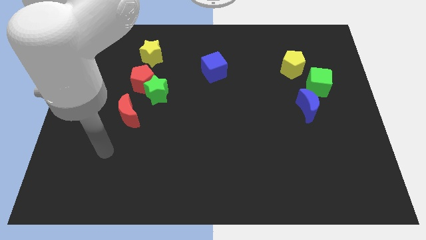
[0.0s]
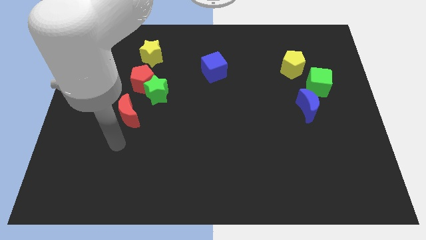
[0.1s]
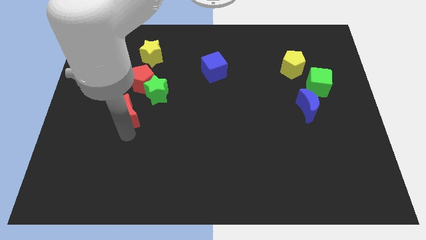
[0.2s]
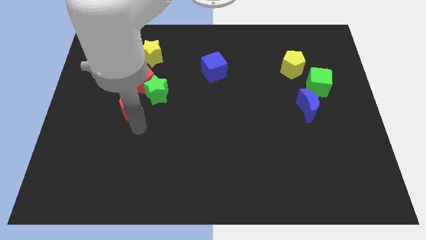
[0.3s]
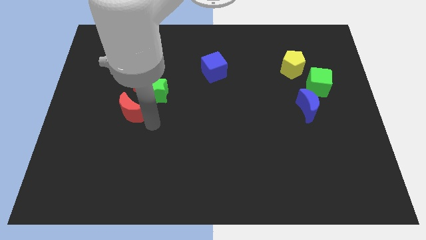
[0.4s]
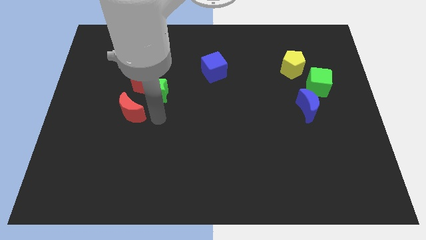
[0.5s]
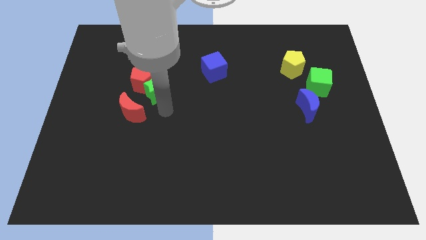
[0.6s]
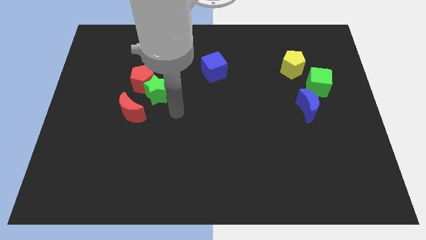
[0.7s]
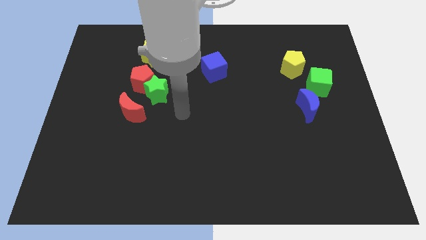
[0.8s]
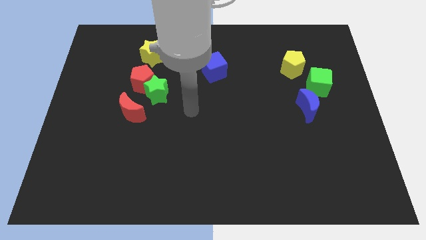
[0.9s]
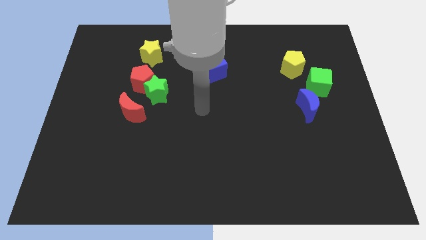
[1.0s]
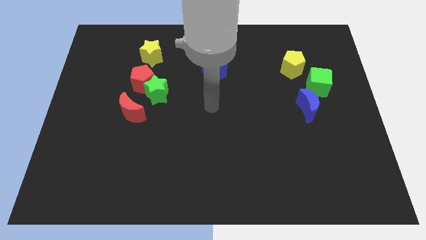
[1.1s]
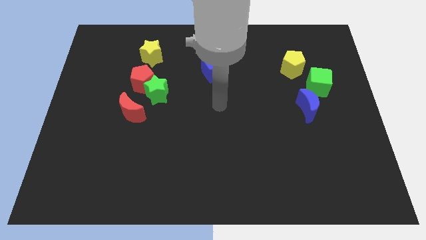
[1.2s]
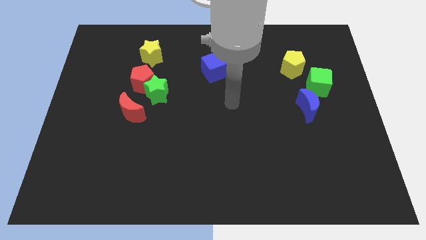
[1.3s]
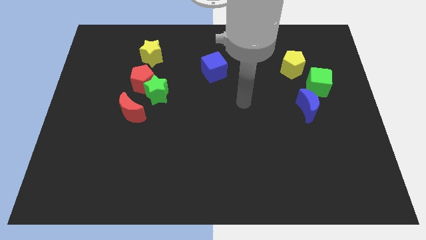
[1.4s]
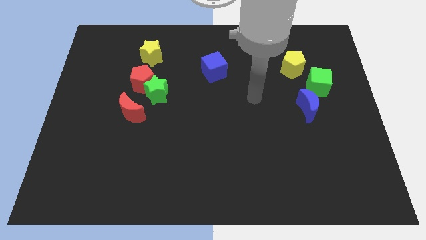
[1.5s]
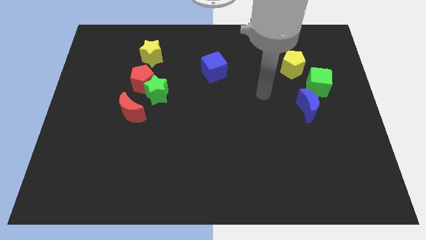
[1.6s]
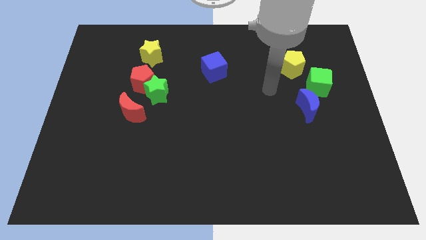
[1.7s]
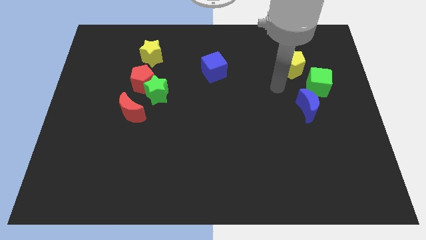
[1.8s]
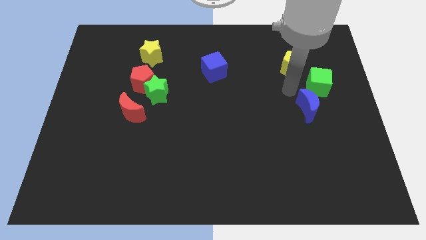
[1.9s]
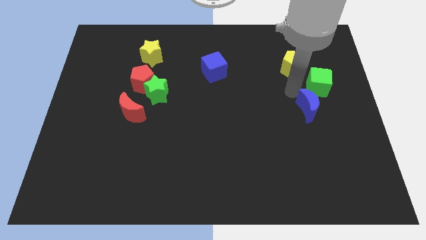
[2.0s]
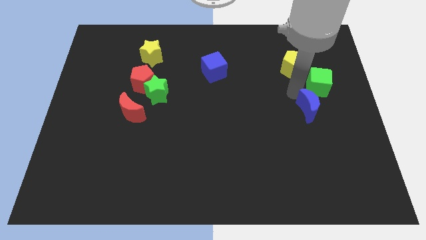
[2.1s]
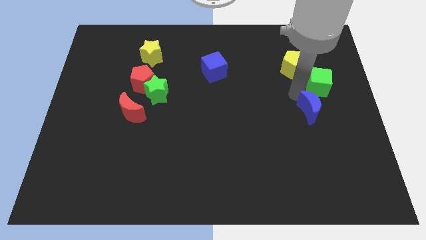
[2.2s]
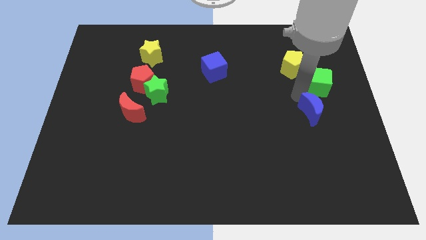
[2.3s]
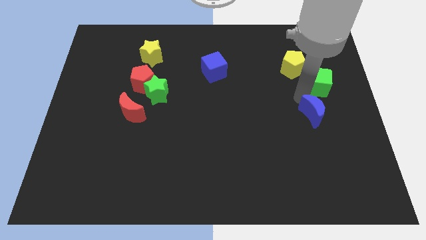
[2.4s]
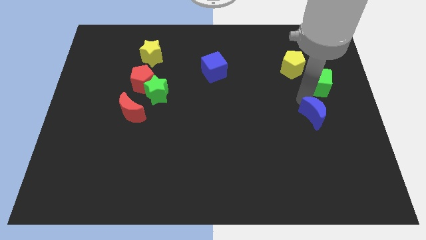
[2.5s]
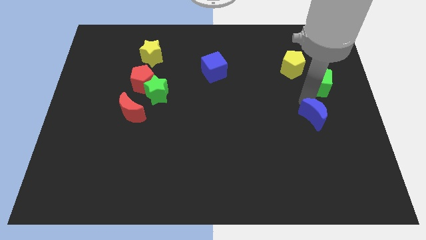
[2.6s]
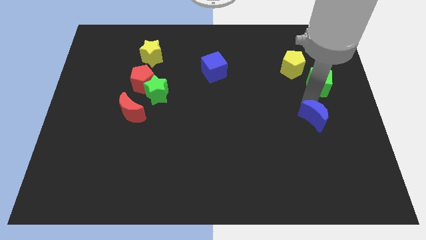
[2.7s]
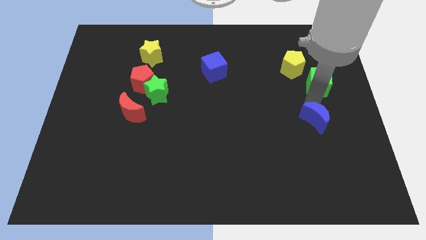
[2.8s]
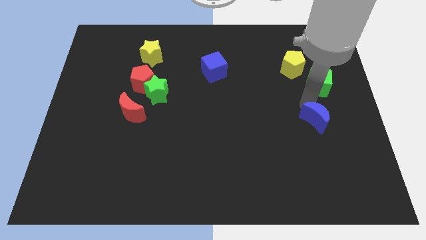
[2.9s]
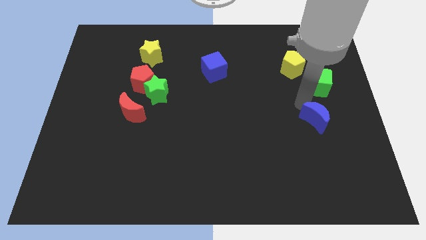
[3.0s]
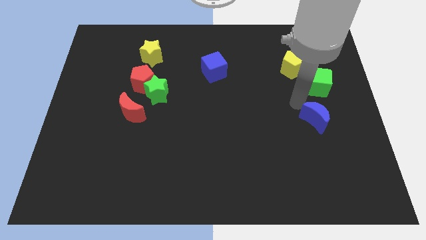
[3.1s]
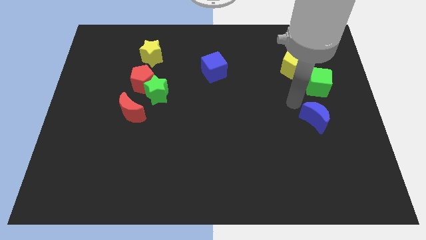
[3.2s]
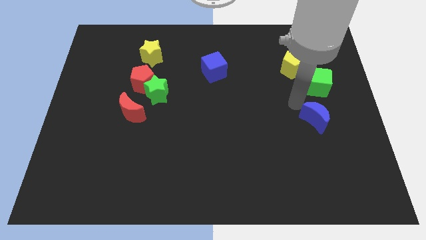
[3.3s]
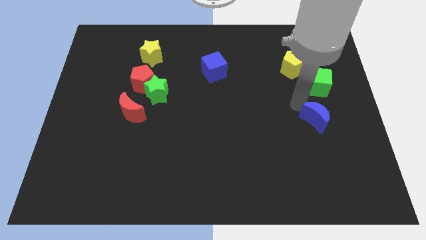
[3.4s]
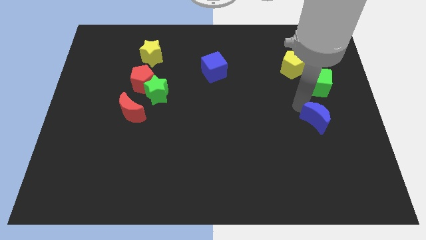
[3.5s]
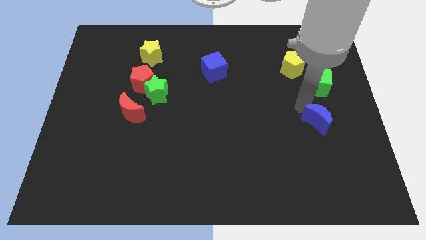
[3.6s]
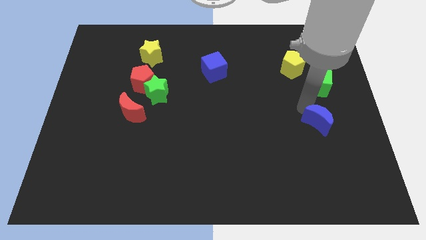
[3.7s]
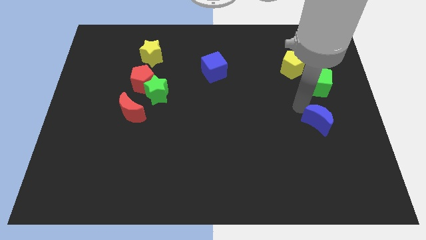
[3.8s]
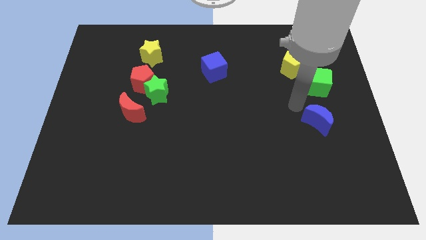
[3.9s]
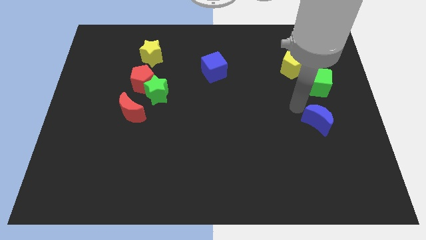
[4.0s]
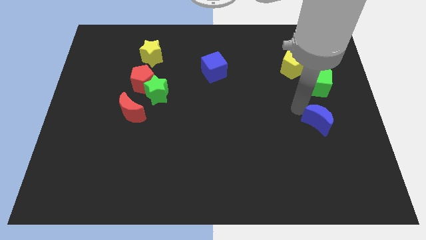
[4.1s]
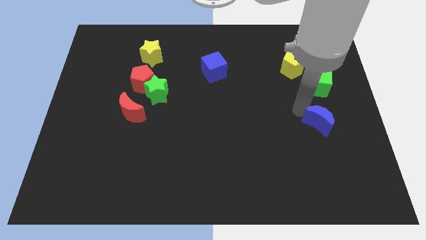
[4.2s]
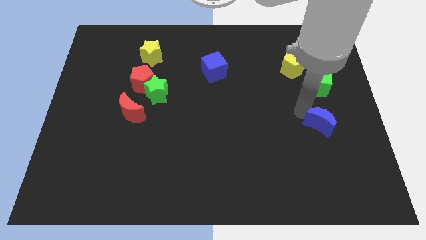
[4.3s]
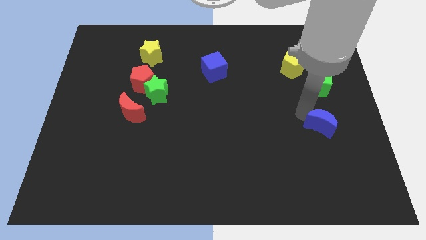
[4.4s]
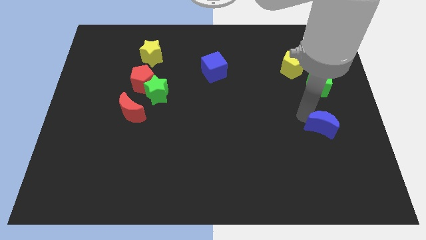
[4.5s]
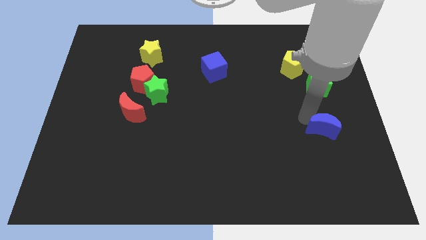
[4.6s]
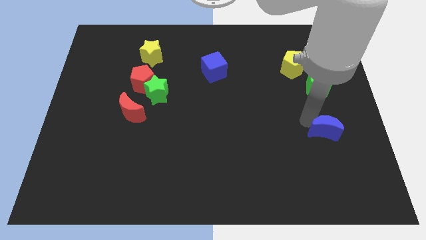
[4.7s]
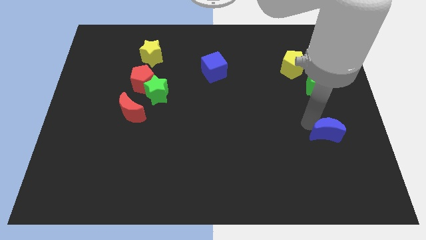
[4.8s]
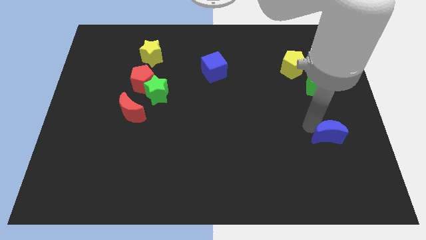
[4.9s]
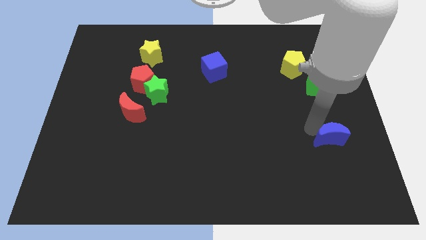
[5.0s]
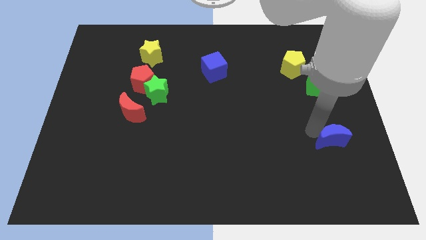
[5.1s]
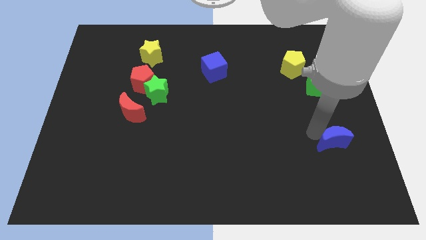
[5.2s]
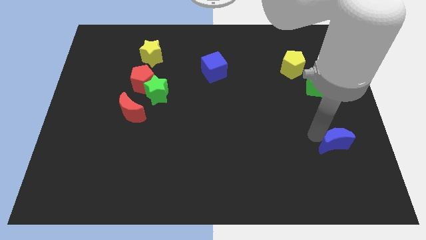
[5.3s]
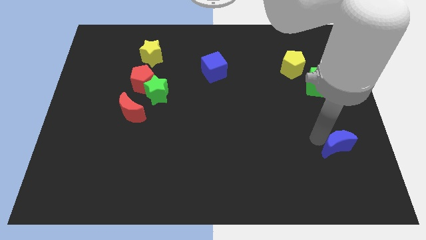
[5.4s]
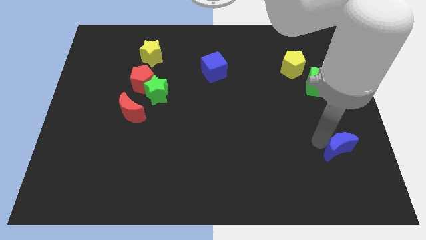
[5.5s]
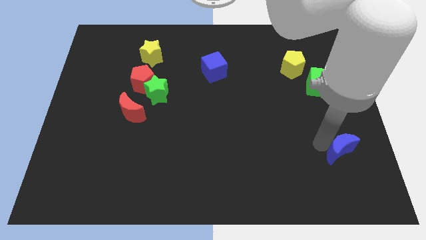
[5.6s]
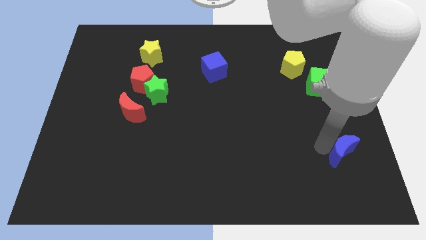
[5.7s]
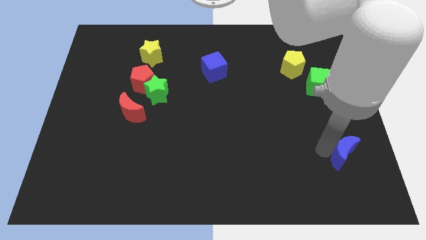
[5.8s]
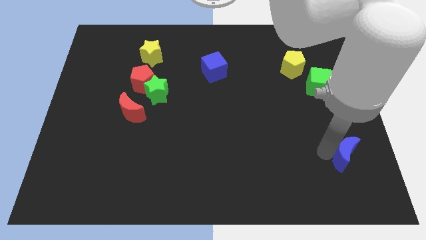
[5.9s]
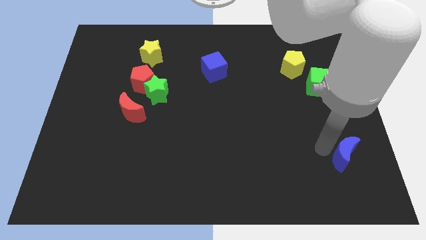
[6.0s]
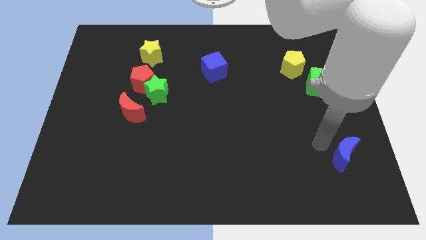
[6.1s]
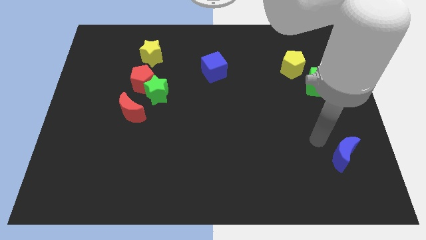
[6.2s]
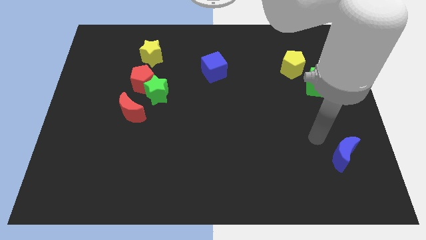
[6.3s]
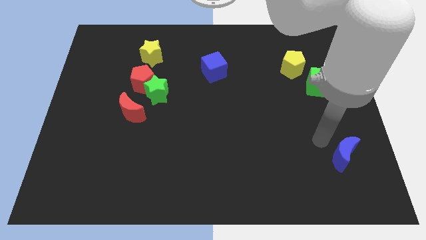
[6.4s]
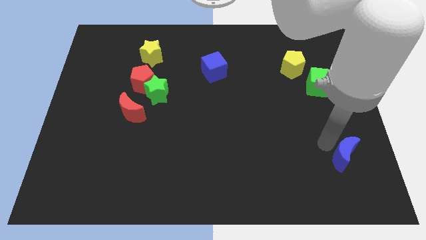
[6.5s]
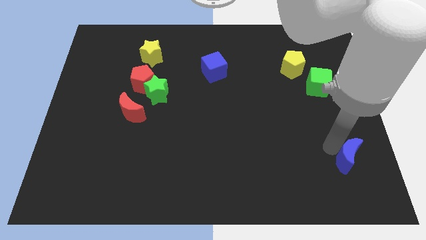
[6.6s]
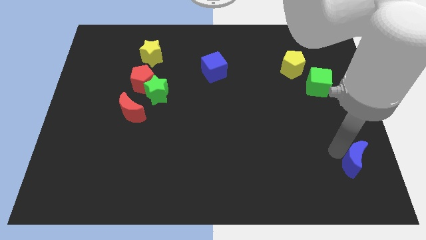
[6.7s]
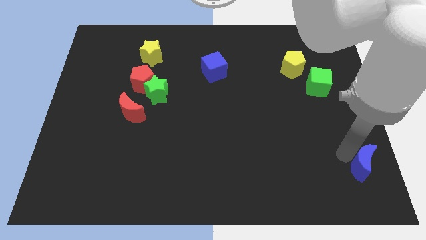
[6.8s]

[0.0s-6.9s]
slide the blue moon to the bottom right corner
